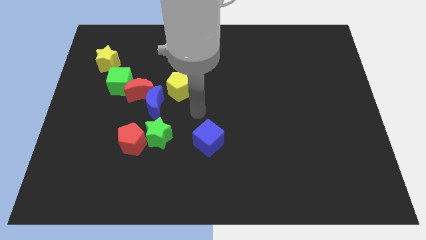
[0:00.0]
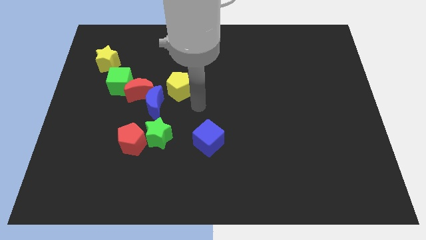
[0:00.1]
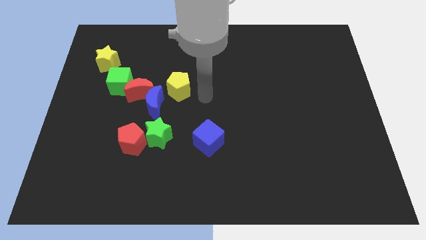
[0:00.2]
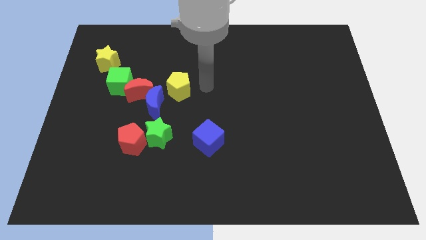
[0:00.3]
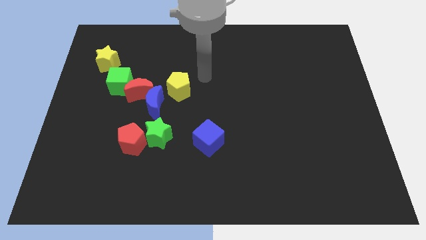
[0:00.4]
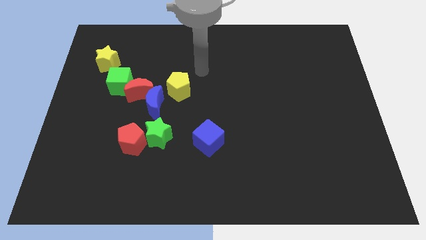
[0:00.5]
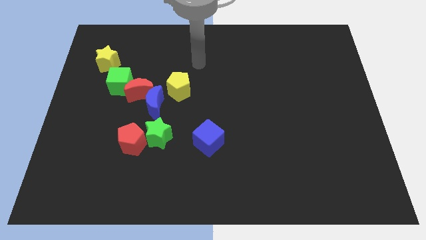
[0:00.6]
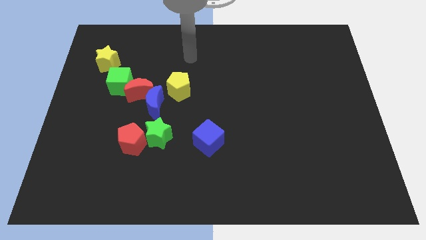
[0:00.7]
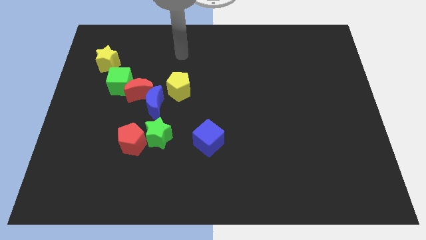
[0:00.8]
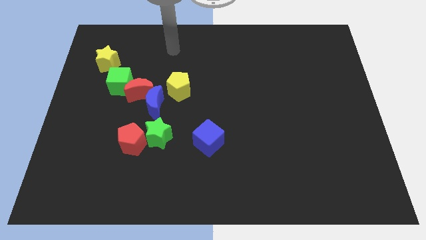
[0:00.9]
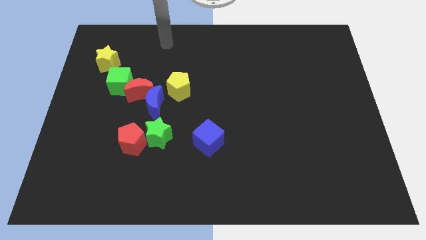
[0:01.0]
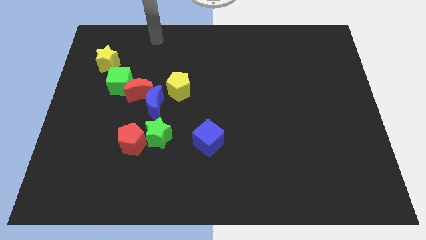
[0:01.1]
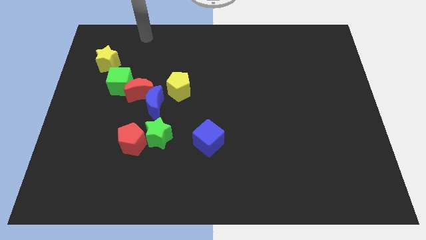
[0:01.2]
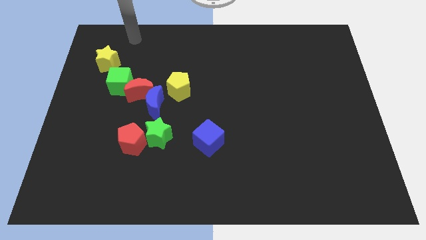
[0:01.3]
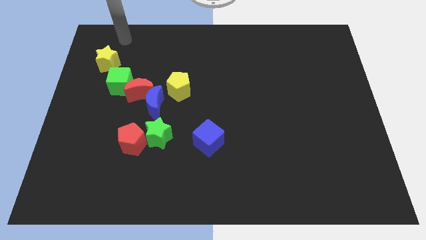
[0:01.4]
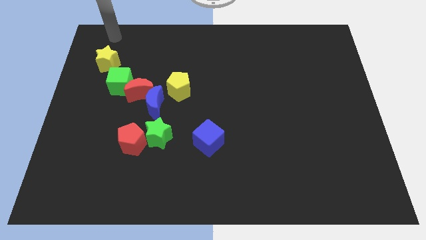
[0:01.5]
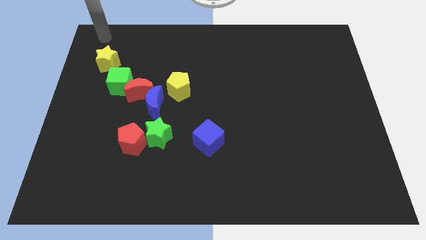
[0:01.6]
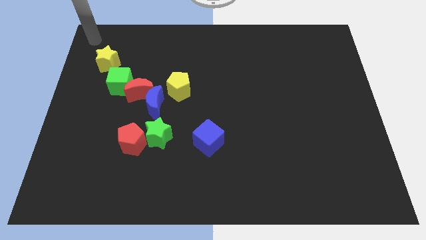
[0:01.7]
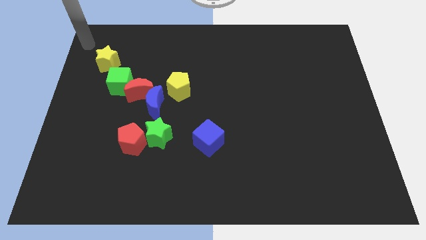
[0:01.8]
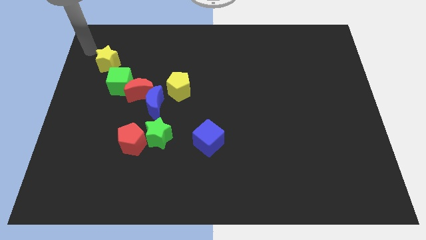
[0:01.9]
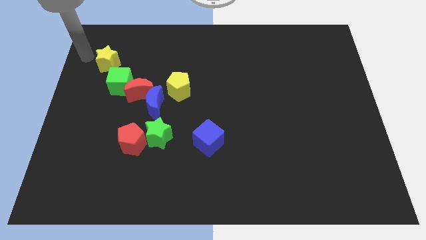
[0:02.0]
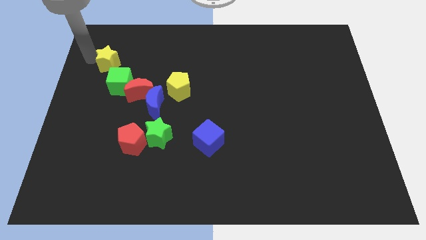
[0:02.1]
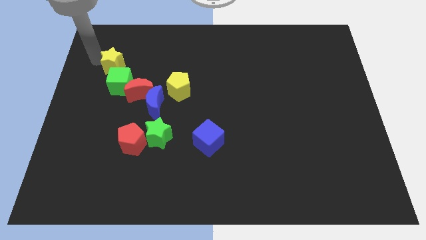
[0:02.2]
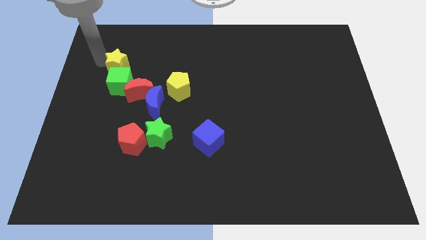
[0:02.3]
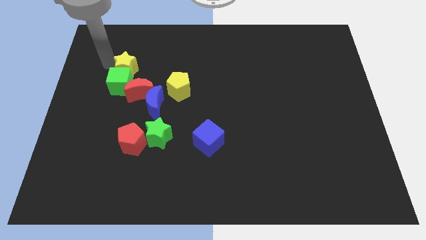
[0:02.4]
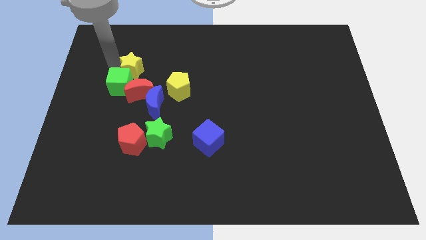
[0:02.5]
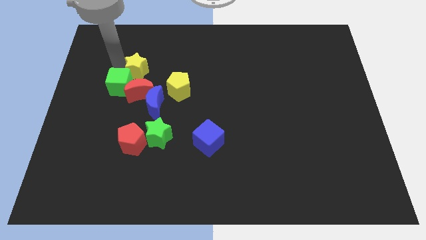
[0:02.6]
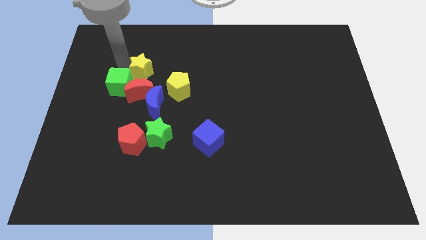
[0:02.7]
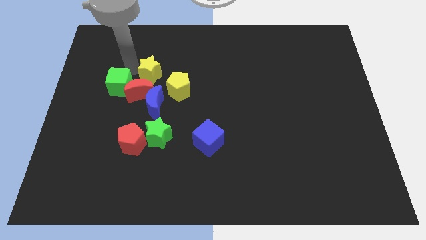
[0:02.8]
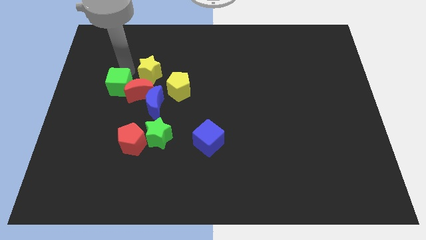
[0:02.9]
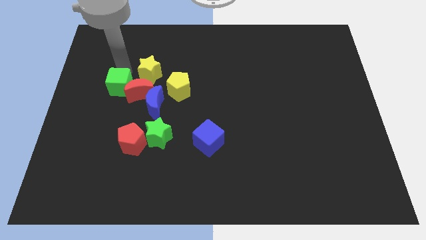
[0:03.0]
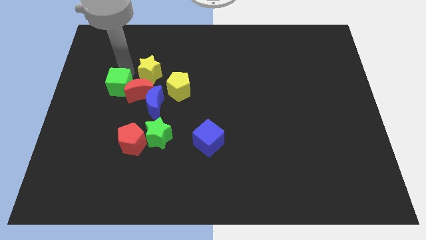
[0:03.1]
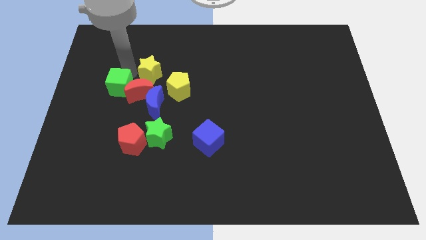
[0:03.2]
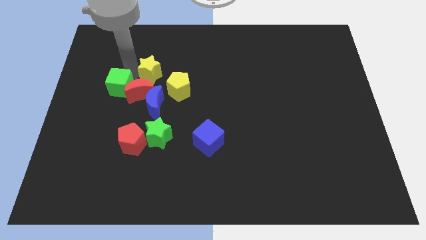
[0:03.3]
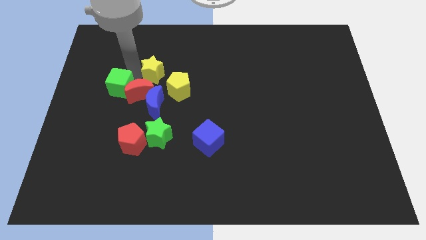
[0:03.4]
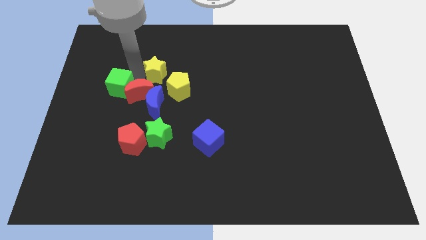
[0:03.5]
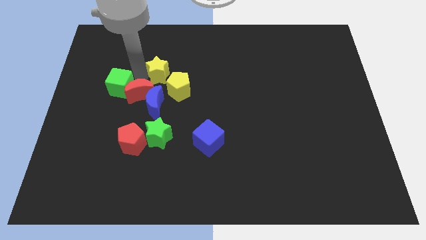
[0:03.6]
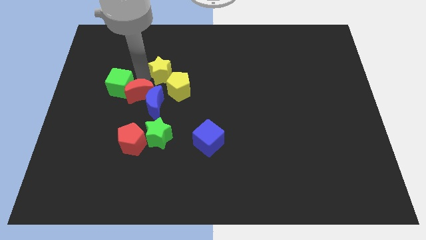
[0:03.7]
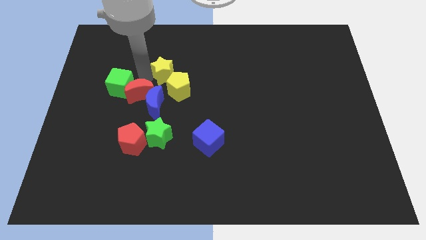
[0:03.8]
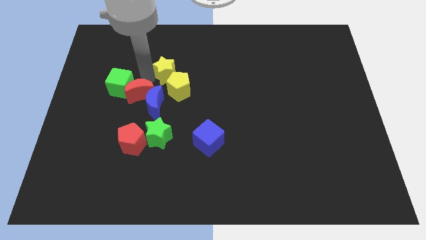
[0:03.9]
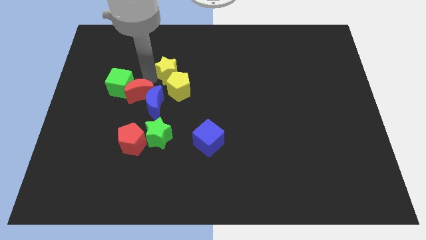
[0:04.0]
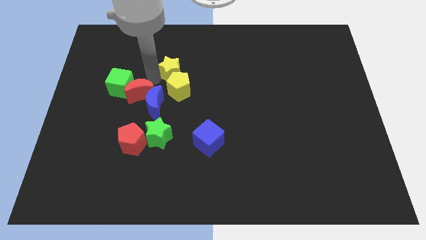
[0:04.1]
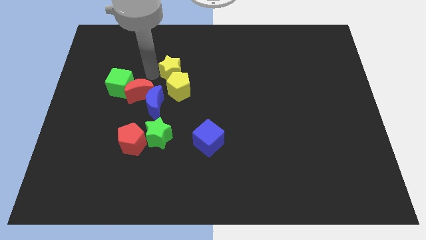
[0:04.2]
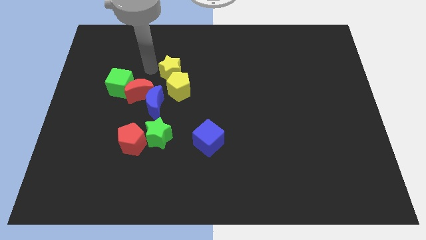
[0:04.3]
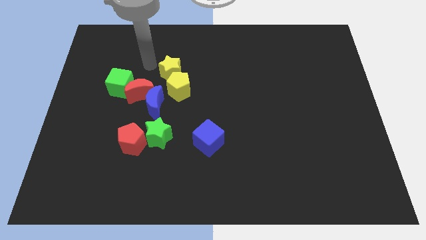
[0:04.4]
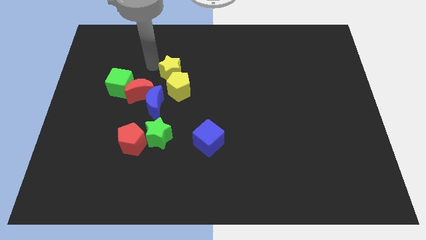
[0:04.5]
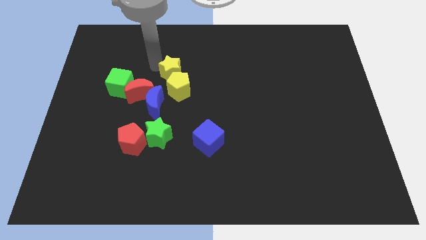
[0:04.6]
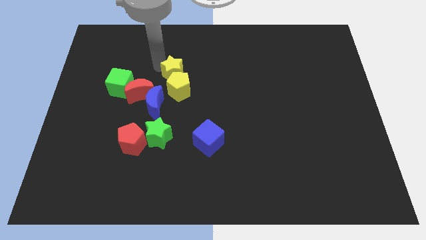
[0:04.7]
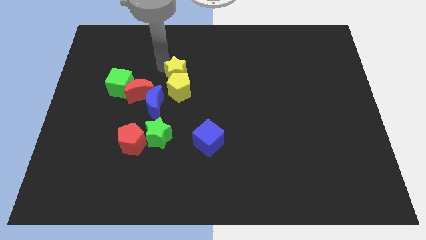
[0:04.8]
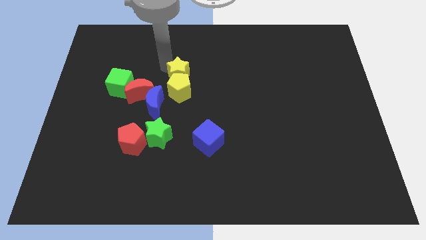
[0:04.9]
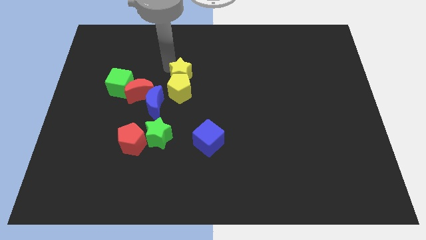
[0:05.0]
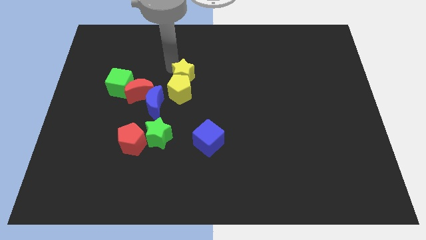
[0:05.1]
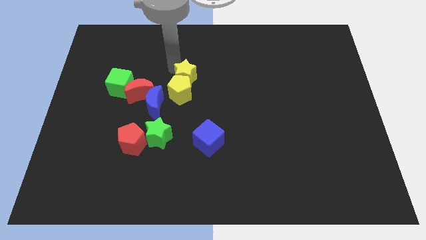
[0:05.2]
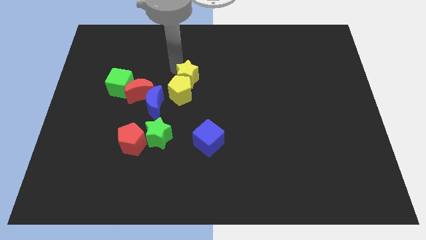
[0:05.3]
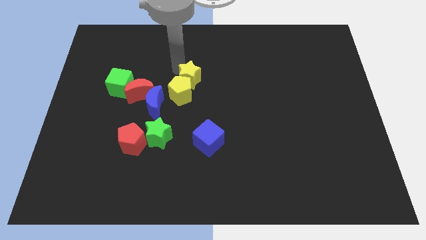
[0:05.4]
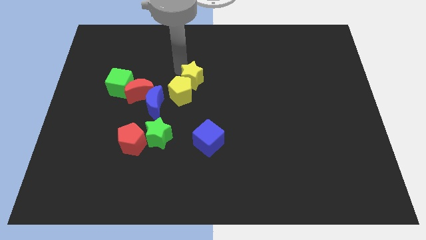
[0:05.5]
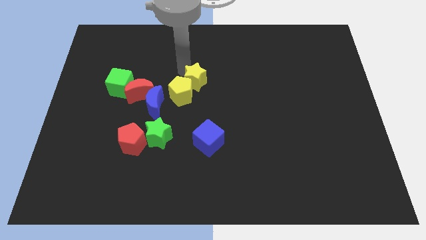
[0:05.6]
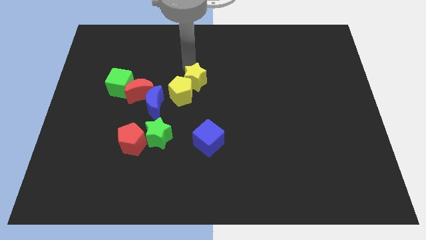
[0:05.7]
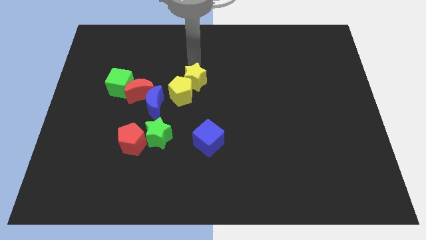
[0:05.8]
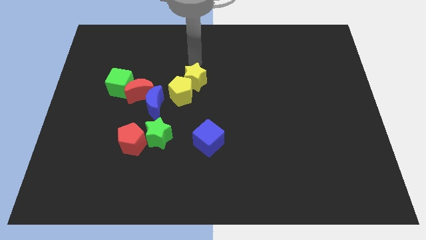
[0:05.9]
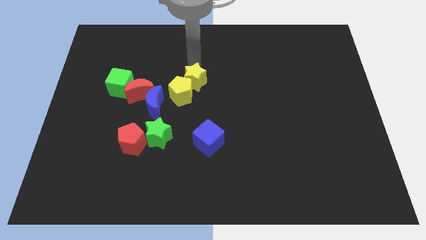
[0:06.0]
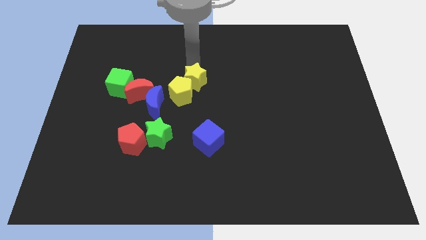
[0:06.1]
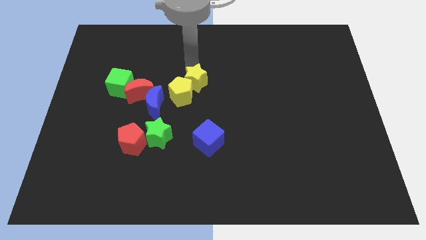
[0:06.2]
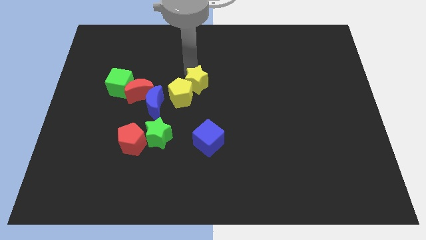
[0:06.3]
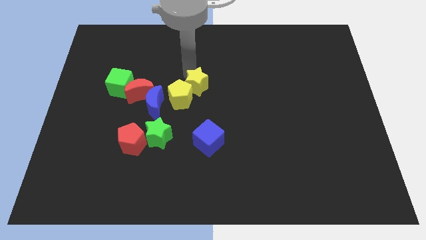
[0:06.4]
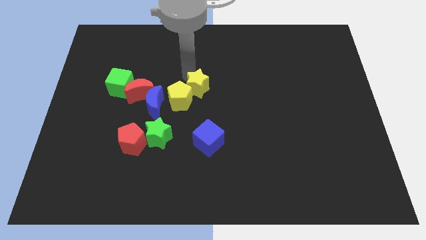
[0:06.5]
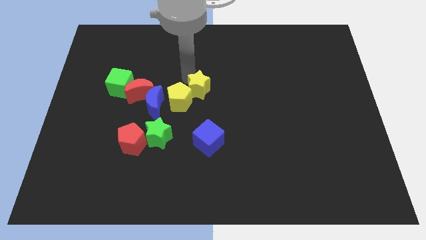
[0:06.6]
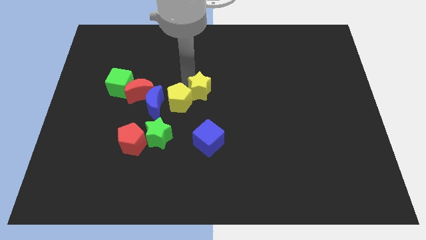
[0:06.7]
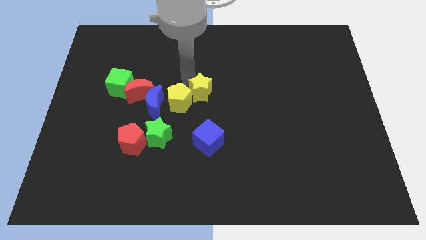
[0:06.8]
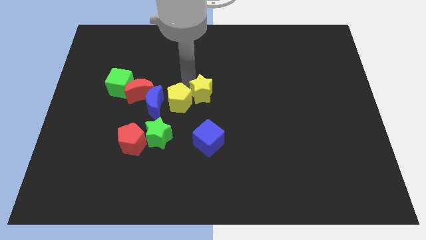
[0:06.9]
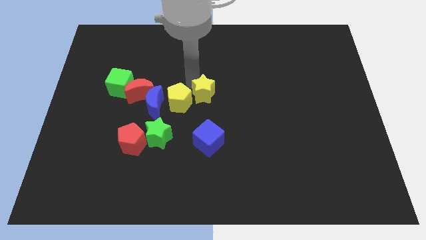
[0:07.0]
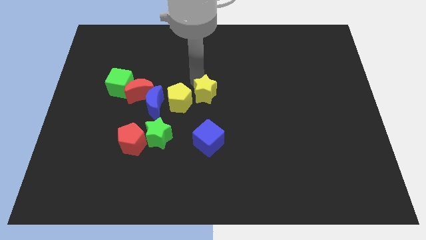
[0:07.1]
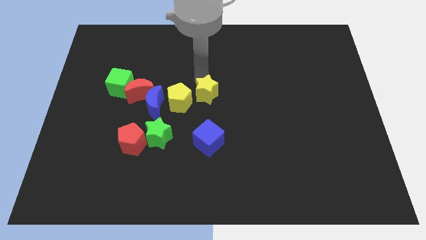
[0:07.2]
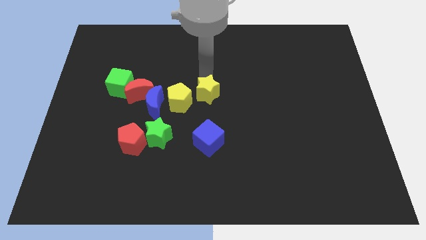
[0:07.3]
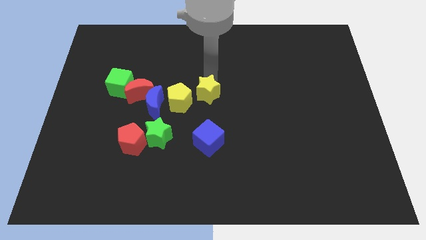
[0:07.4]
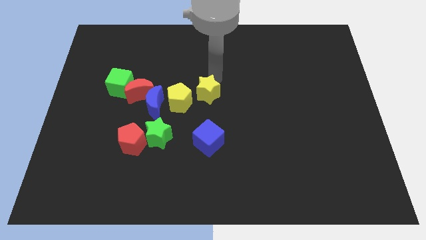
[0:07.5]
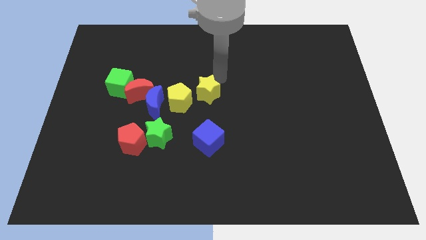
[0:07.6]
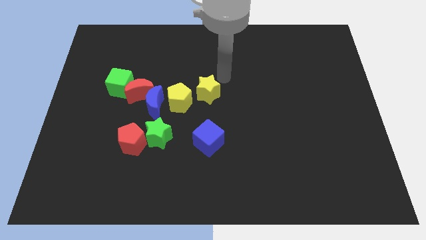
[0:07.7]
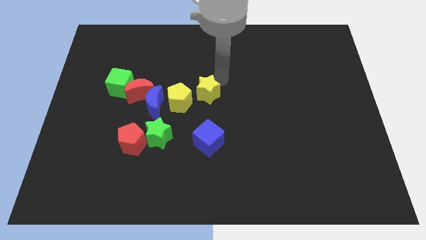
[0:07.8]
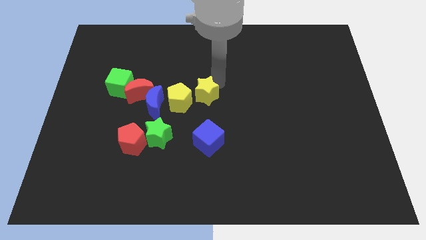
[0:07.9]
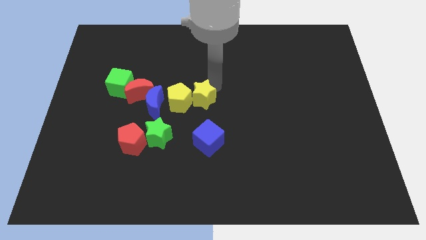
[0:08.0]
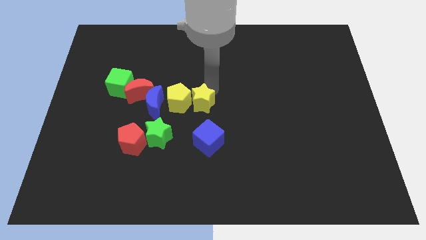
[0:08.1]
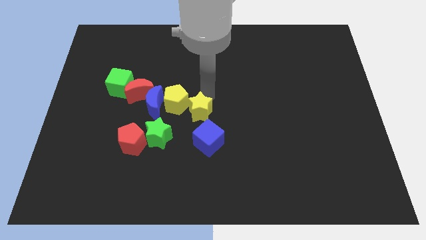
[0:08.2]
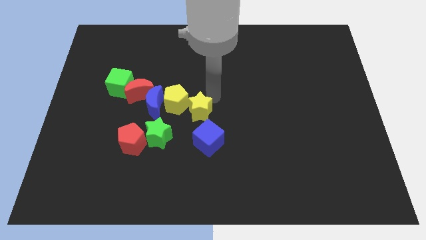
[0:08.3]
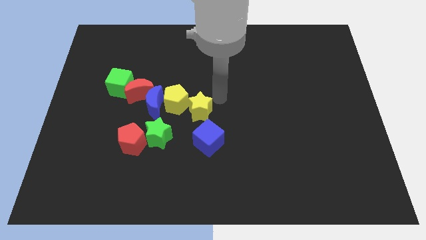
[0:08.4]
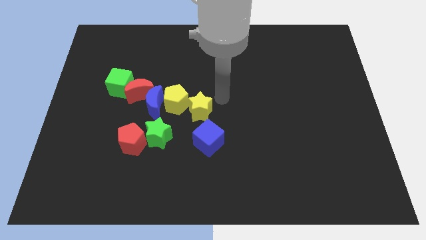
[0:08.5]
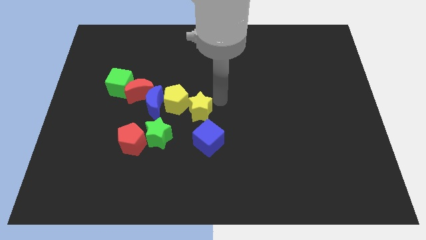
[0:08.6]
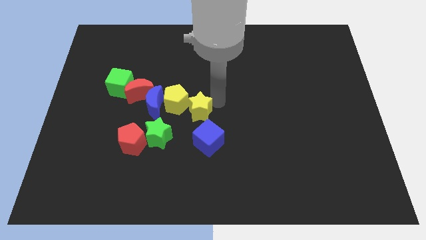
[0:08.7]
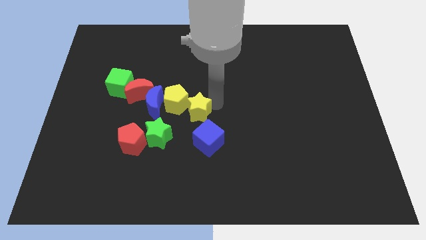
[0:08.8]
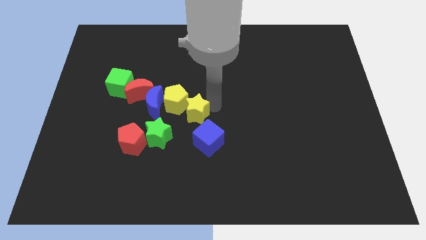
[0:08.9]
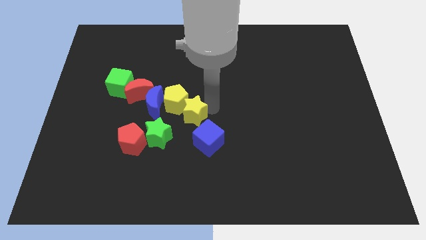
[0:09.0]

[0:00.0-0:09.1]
move the yellow star to the bottom right side of the blue moon
